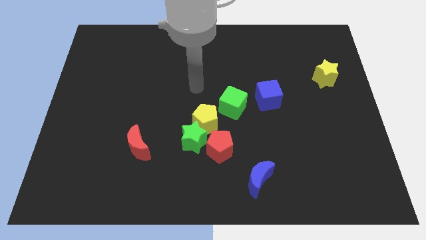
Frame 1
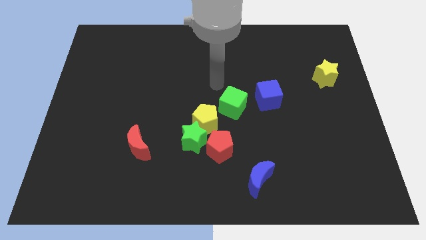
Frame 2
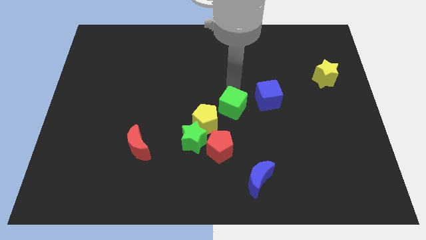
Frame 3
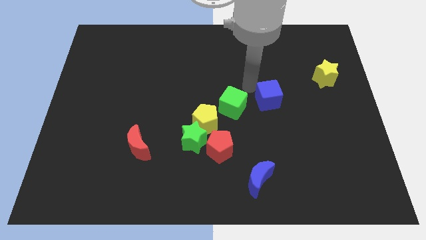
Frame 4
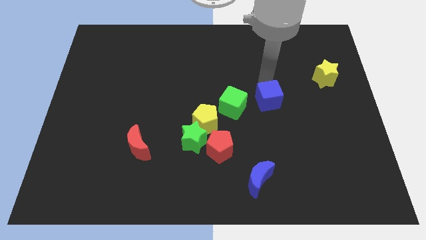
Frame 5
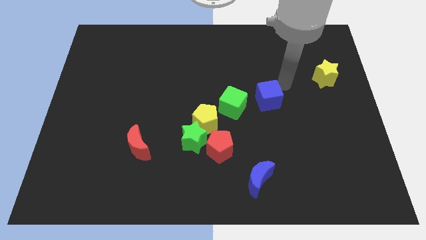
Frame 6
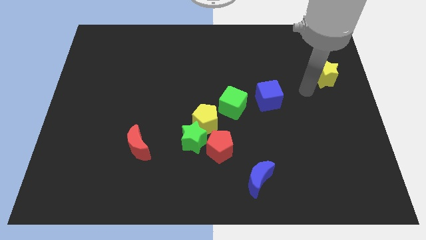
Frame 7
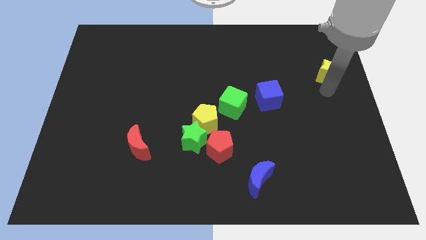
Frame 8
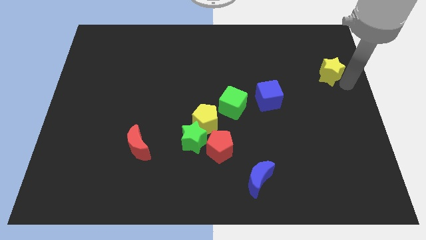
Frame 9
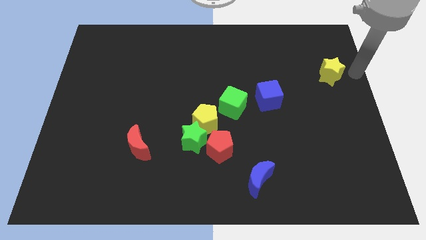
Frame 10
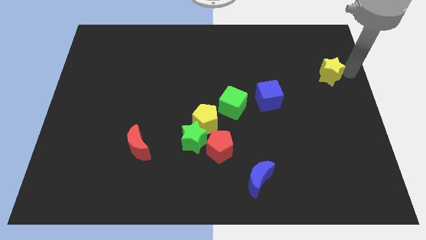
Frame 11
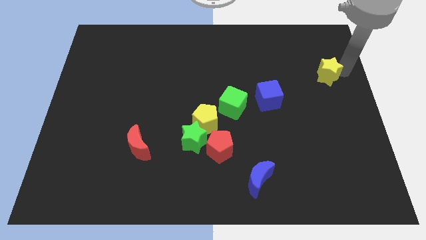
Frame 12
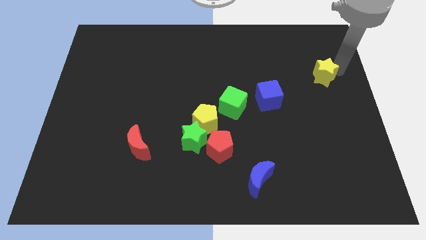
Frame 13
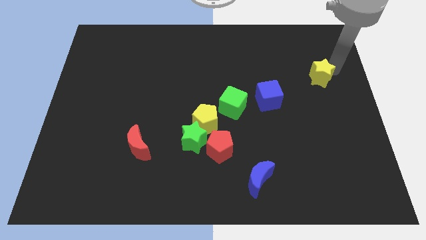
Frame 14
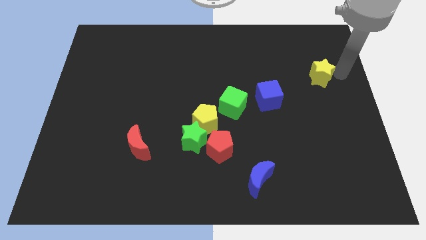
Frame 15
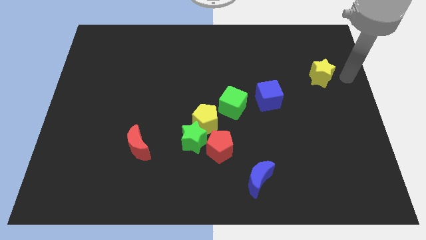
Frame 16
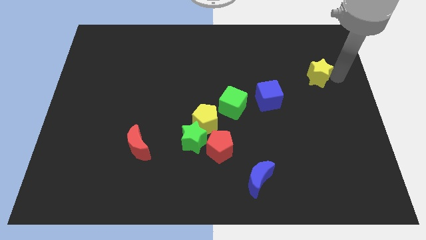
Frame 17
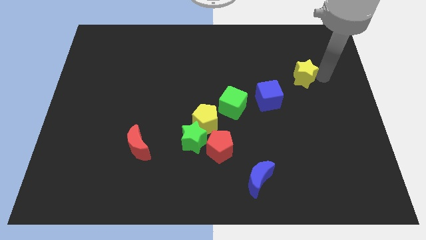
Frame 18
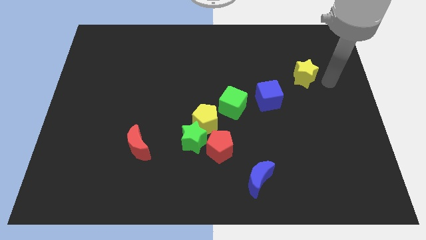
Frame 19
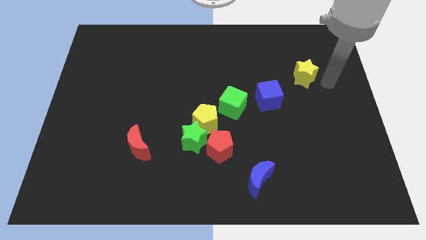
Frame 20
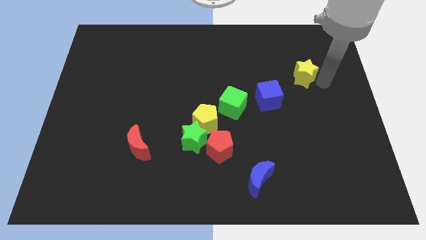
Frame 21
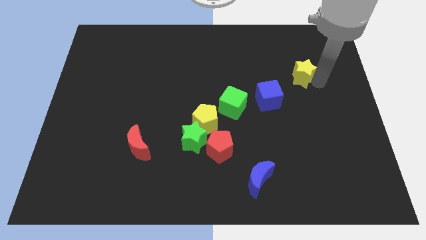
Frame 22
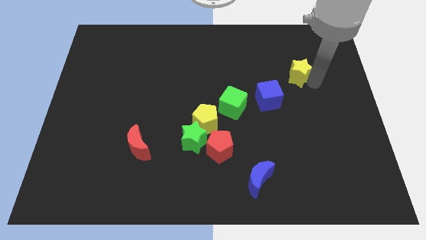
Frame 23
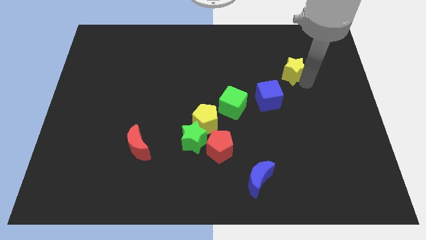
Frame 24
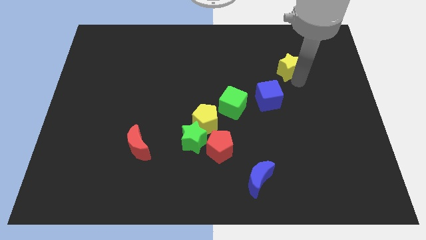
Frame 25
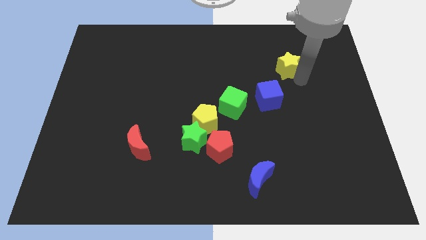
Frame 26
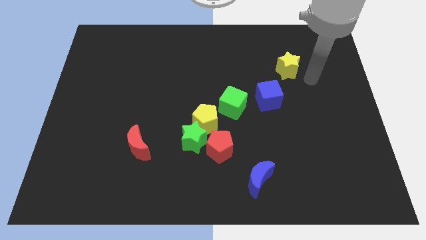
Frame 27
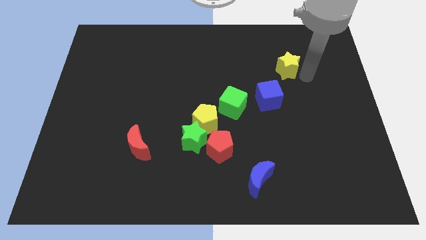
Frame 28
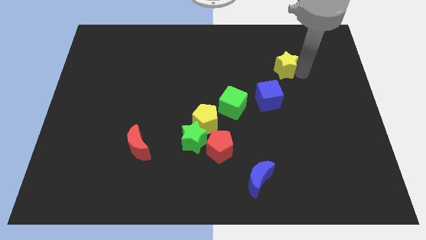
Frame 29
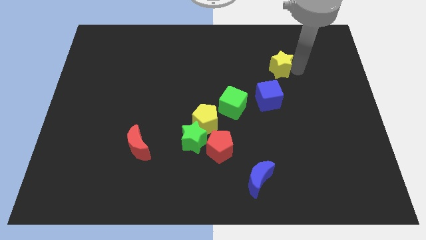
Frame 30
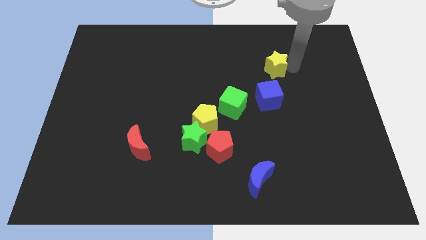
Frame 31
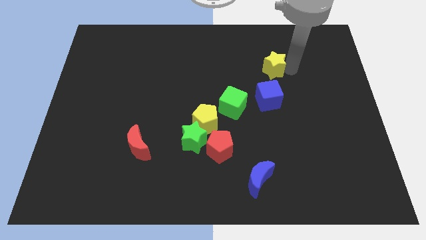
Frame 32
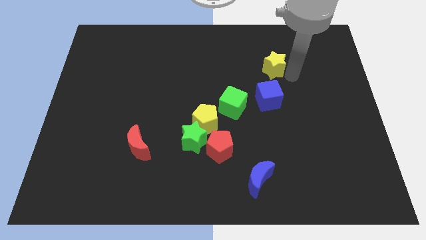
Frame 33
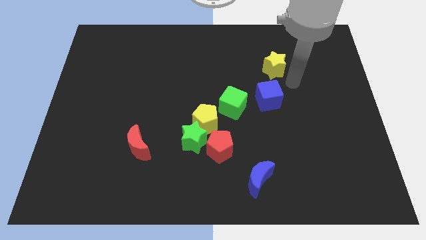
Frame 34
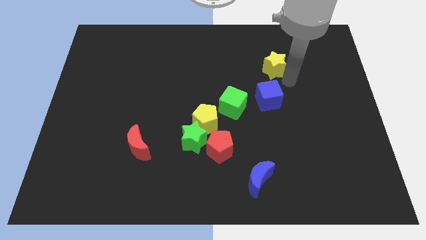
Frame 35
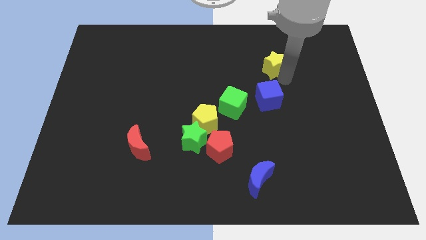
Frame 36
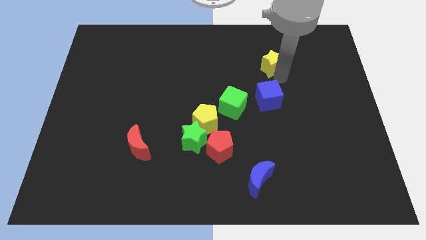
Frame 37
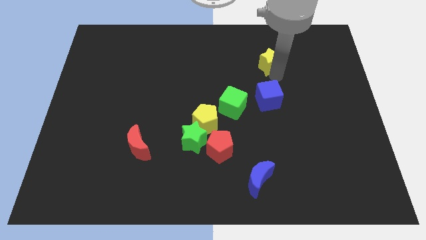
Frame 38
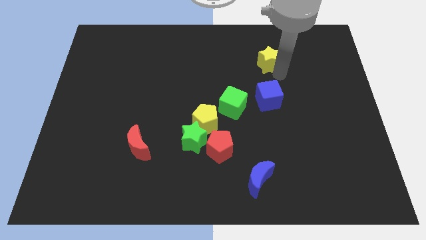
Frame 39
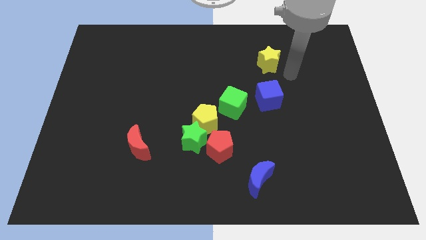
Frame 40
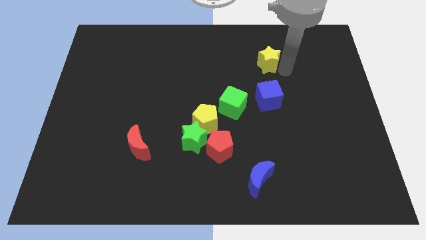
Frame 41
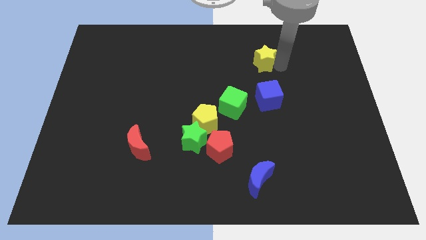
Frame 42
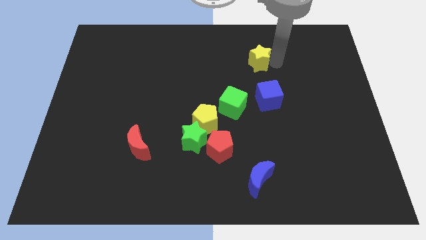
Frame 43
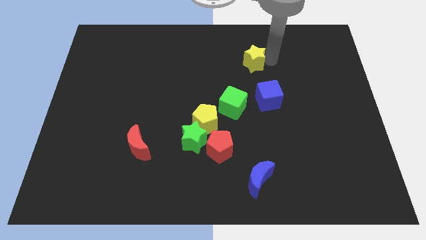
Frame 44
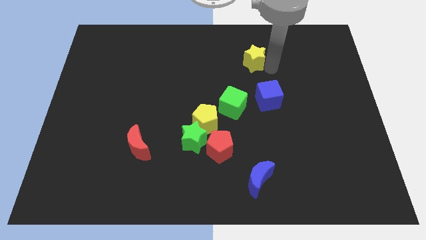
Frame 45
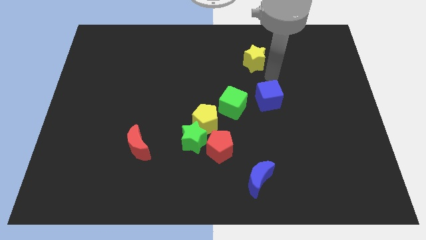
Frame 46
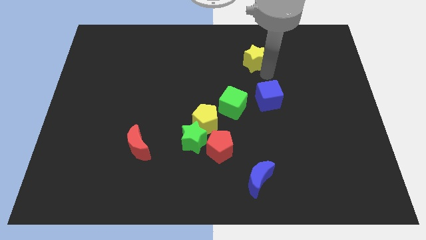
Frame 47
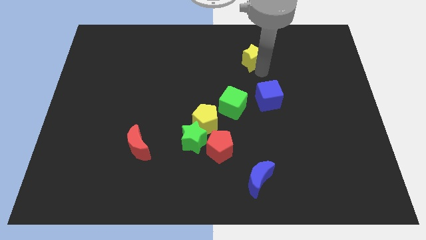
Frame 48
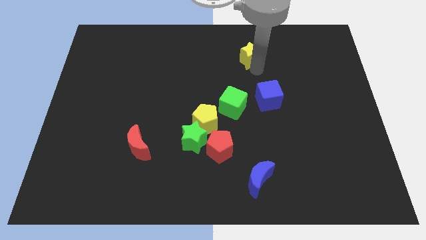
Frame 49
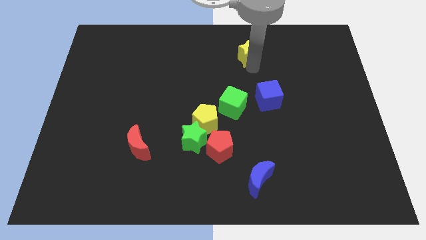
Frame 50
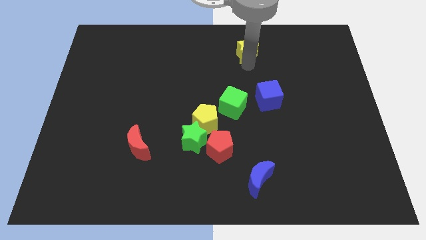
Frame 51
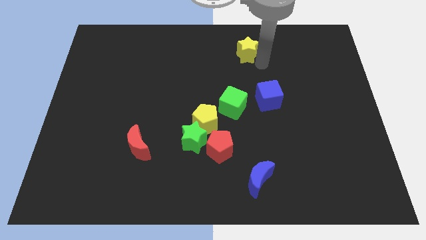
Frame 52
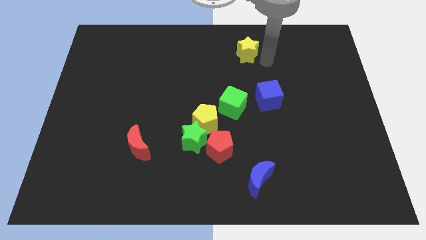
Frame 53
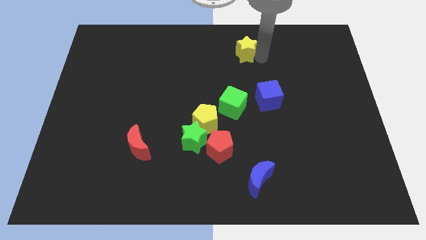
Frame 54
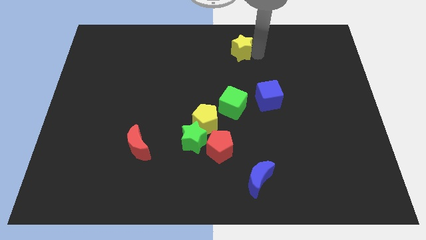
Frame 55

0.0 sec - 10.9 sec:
slide the yellow star to the top side

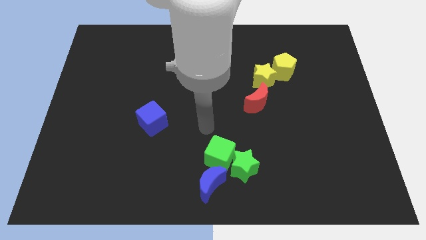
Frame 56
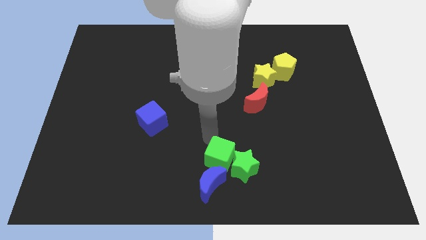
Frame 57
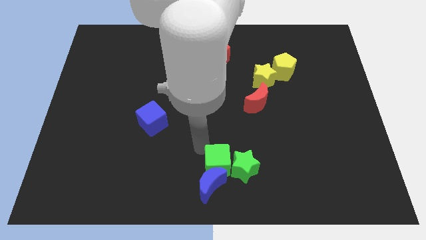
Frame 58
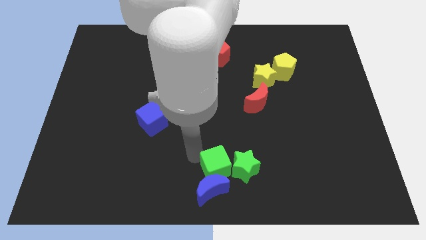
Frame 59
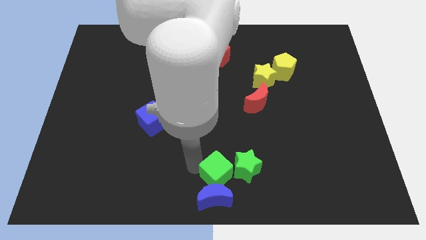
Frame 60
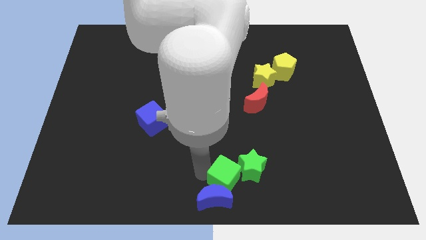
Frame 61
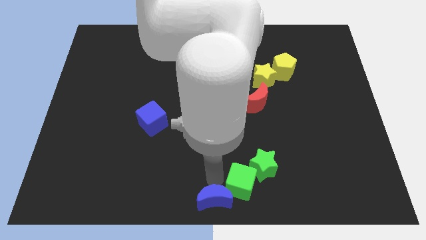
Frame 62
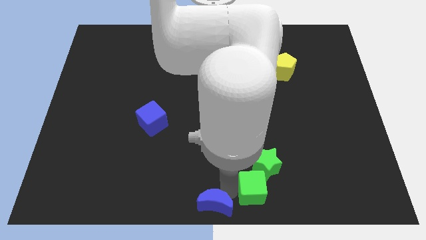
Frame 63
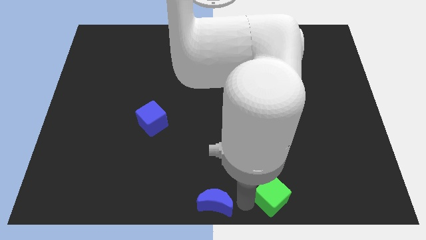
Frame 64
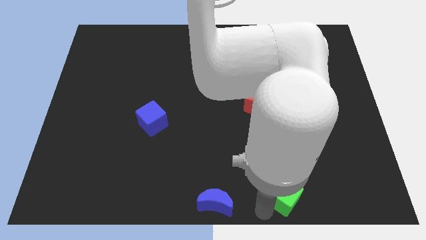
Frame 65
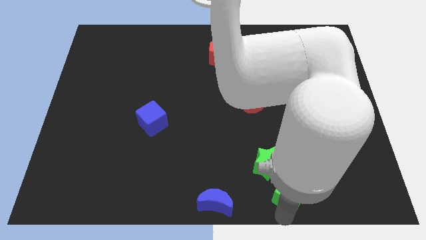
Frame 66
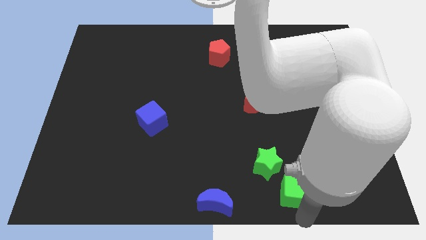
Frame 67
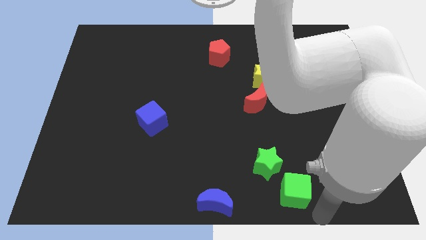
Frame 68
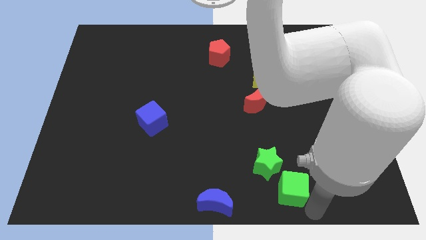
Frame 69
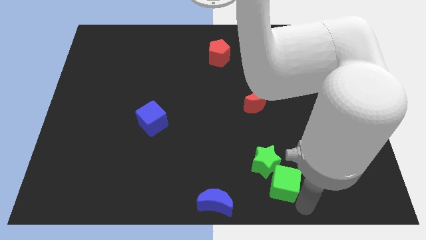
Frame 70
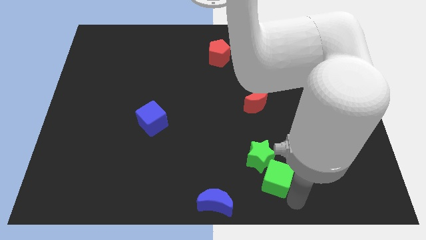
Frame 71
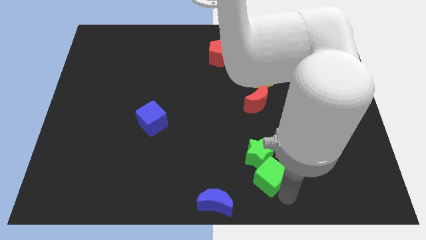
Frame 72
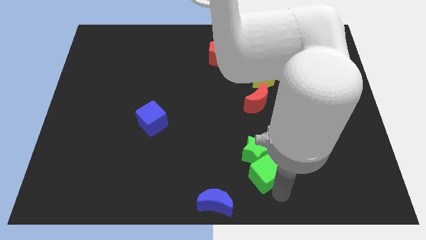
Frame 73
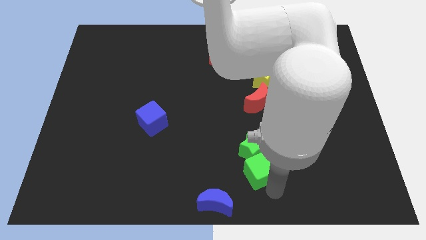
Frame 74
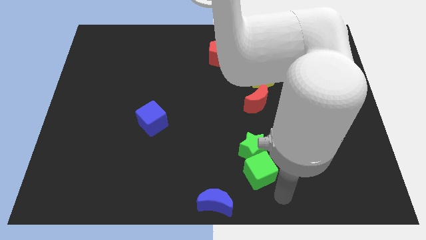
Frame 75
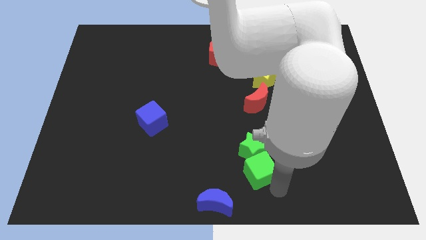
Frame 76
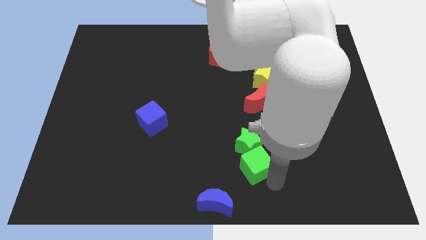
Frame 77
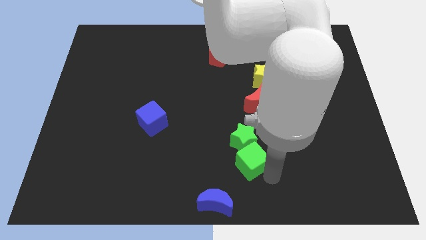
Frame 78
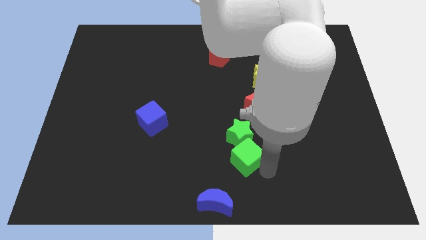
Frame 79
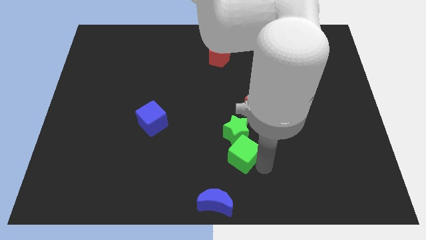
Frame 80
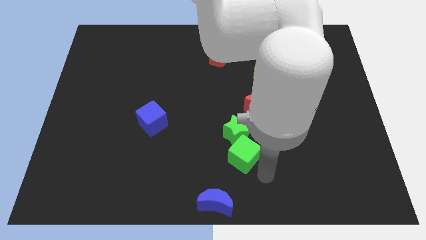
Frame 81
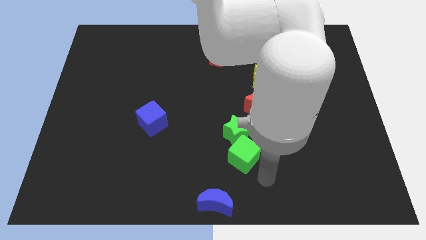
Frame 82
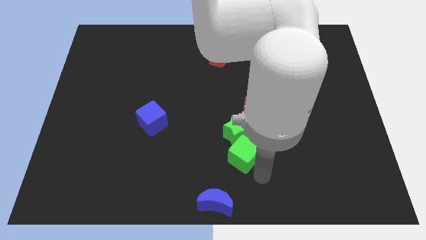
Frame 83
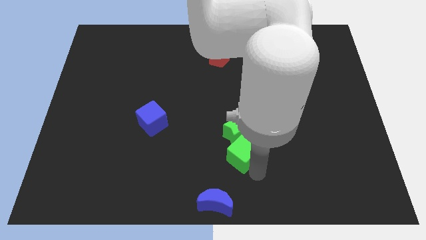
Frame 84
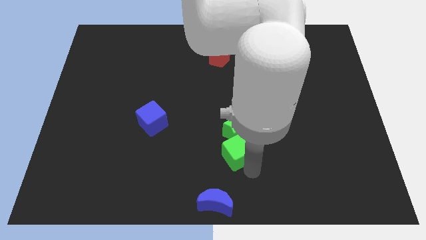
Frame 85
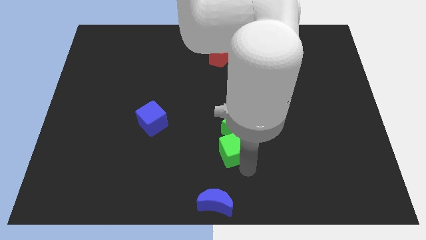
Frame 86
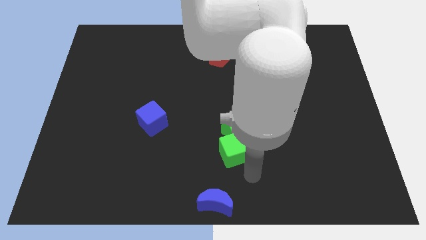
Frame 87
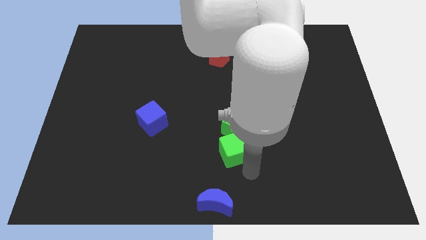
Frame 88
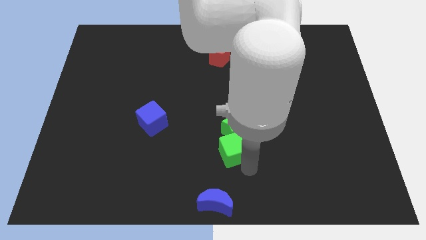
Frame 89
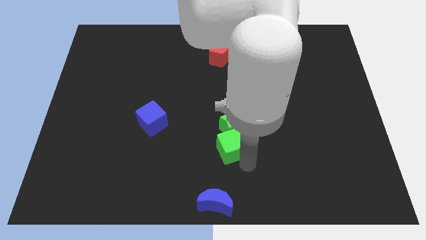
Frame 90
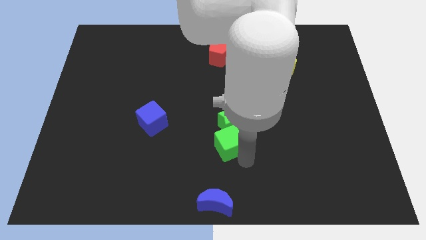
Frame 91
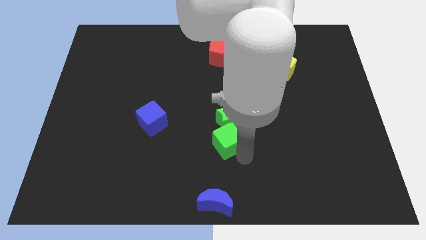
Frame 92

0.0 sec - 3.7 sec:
slide the green cube to the middle of the board
